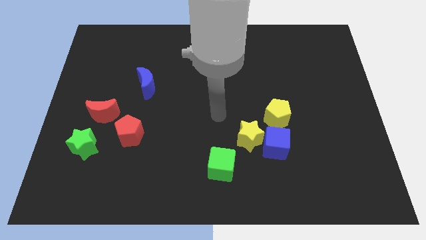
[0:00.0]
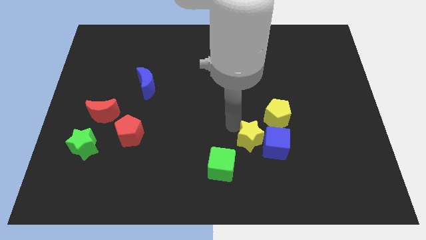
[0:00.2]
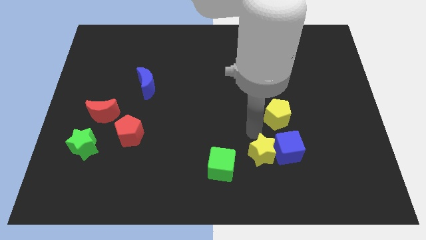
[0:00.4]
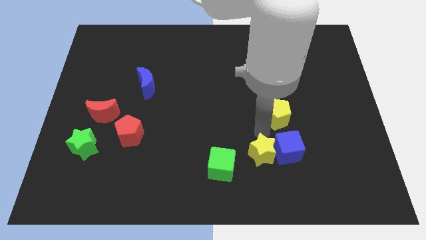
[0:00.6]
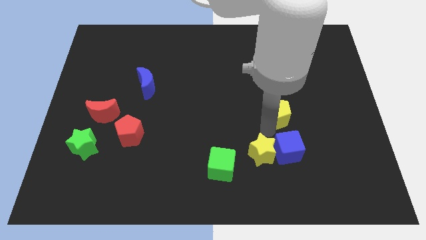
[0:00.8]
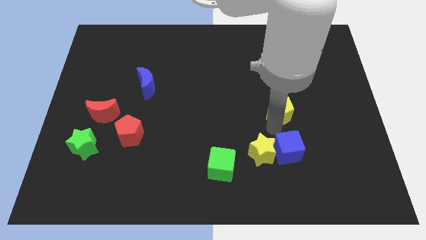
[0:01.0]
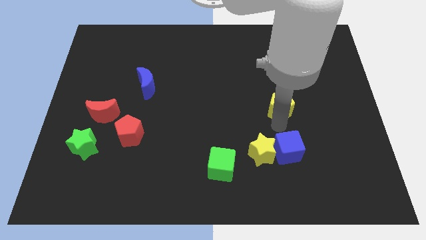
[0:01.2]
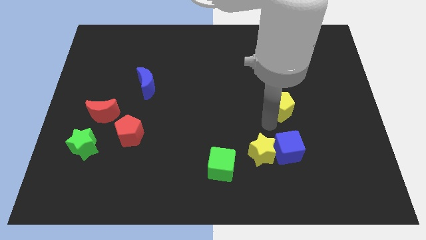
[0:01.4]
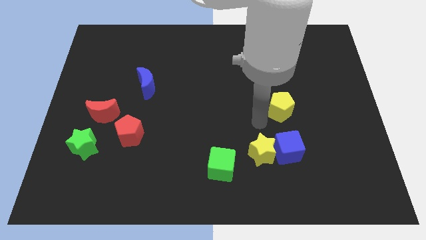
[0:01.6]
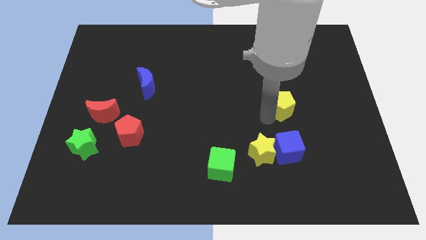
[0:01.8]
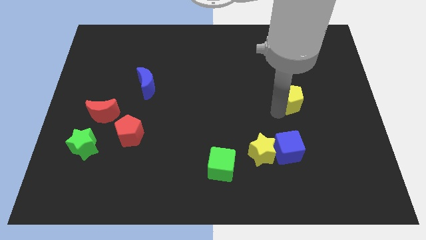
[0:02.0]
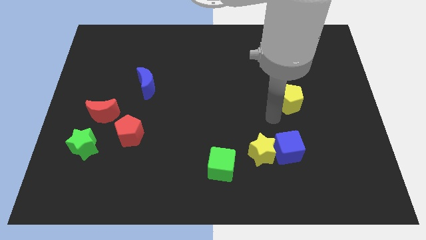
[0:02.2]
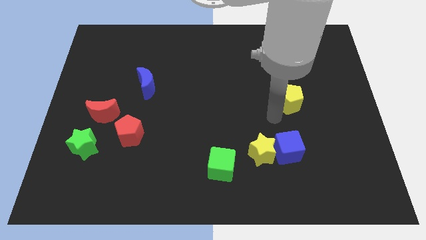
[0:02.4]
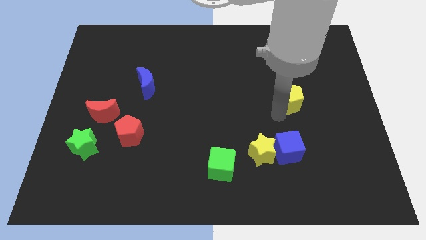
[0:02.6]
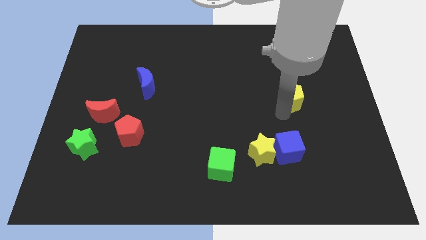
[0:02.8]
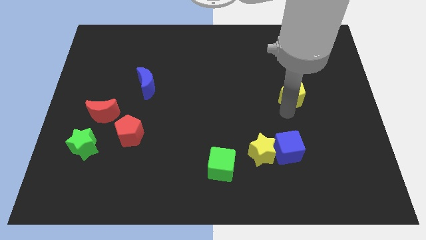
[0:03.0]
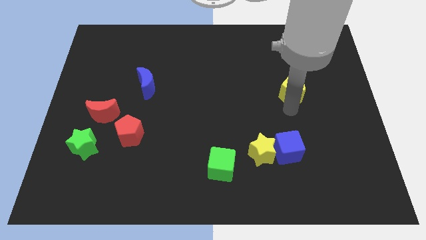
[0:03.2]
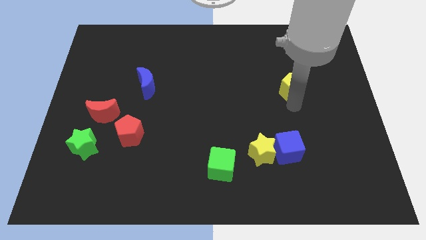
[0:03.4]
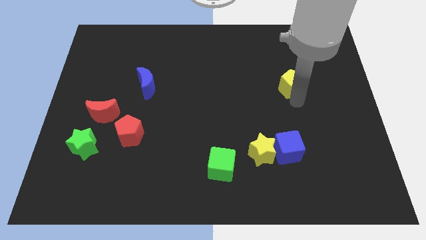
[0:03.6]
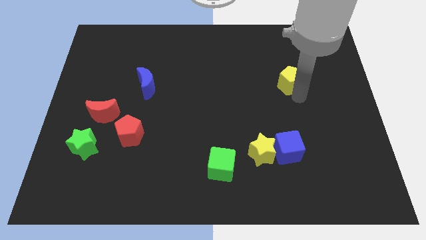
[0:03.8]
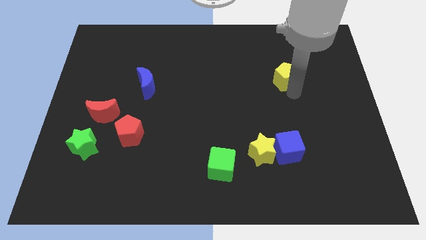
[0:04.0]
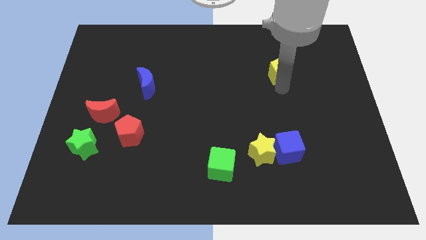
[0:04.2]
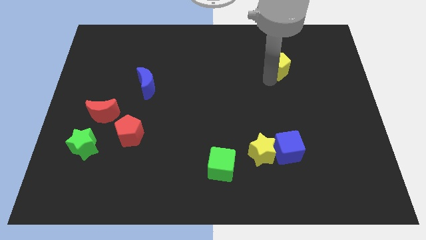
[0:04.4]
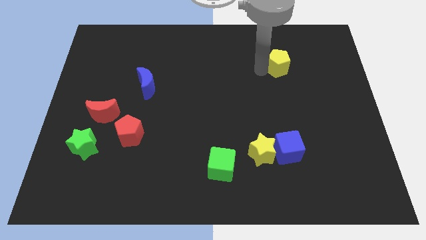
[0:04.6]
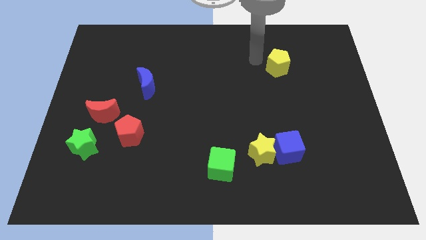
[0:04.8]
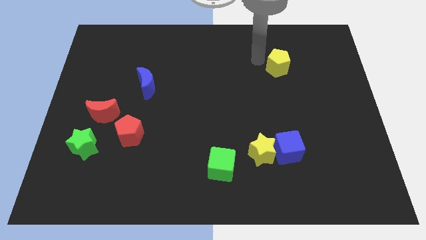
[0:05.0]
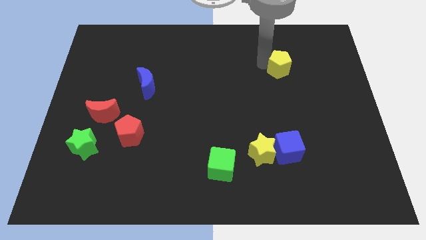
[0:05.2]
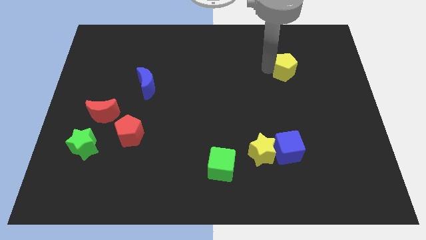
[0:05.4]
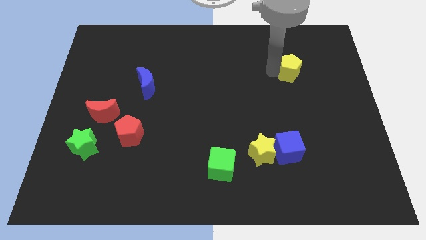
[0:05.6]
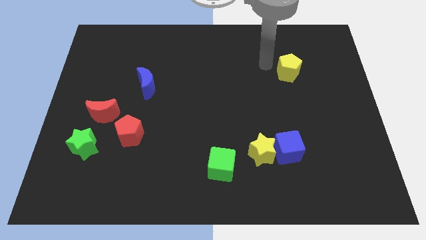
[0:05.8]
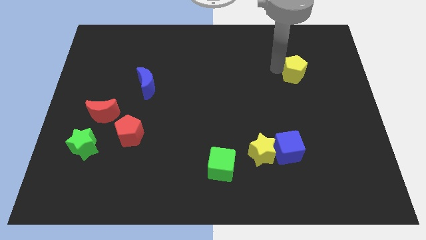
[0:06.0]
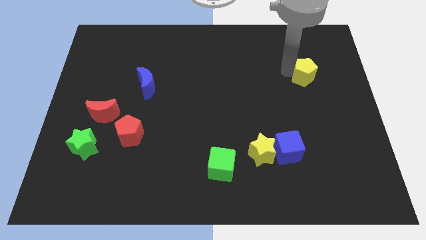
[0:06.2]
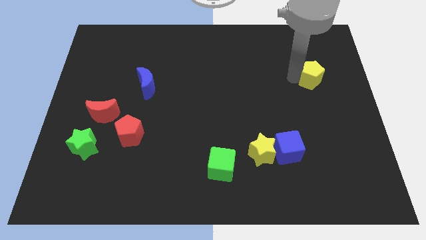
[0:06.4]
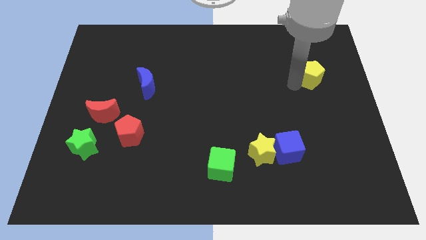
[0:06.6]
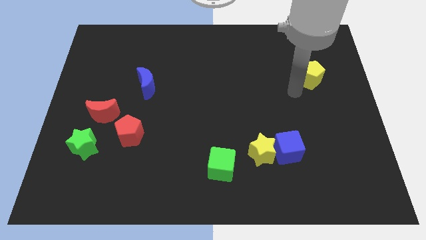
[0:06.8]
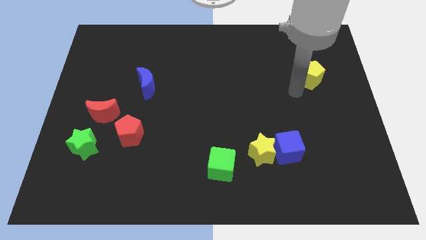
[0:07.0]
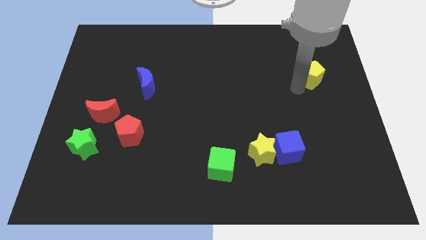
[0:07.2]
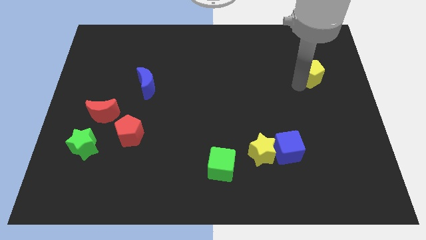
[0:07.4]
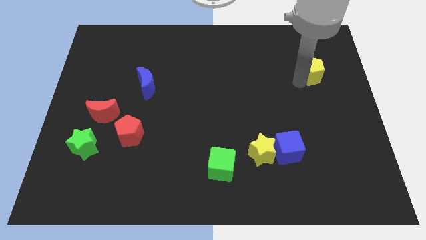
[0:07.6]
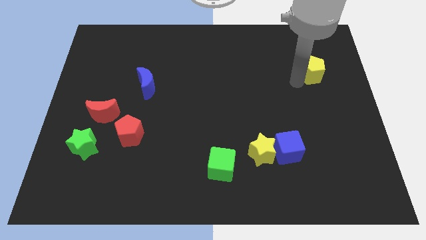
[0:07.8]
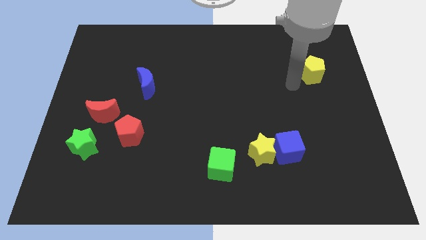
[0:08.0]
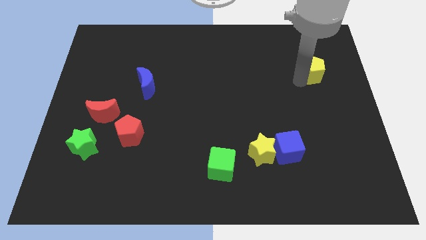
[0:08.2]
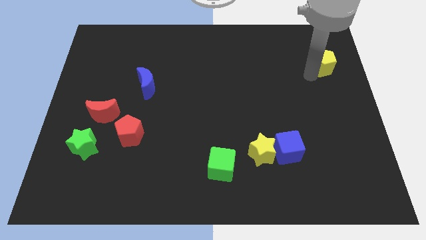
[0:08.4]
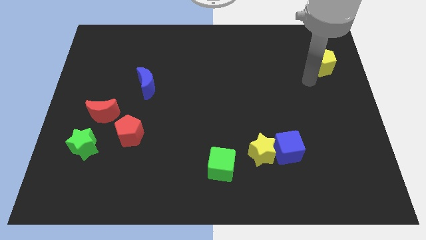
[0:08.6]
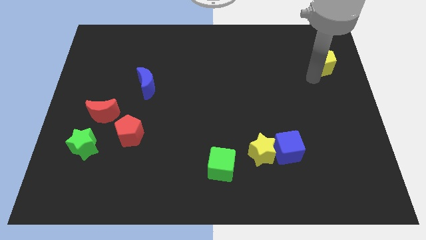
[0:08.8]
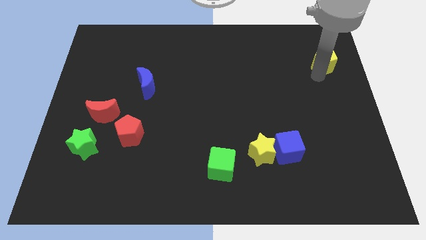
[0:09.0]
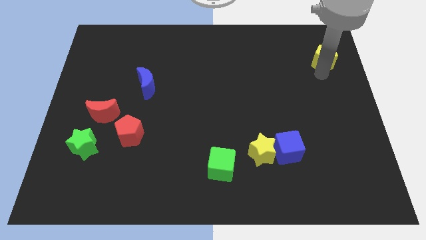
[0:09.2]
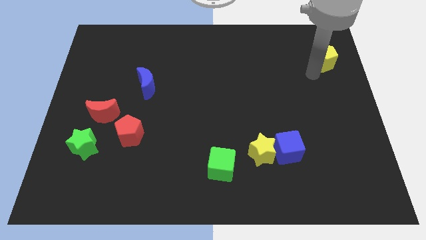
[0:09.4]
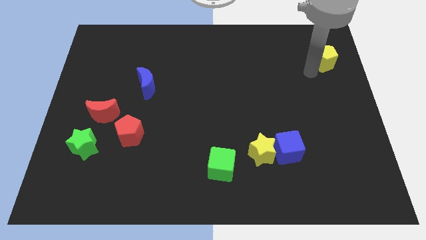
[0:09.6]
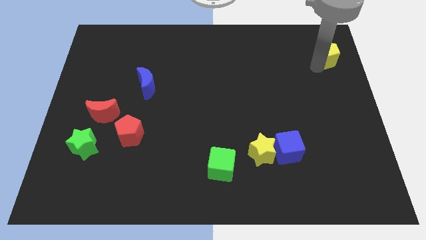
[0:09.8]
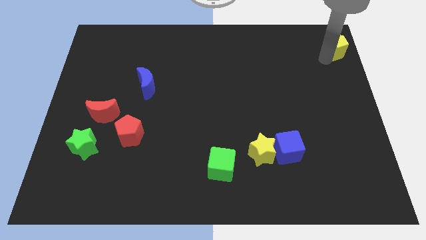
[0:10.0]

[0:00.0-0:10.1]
put the yellow pentagon to the top right corner

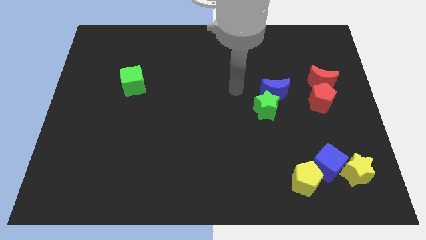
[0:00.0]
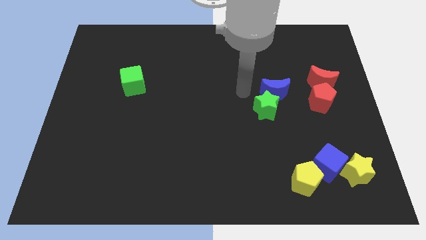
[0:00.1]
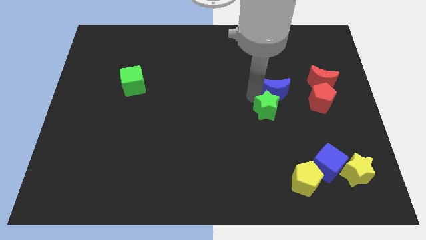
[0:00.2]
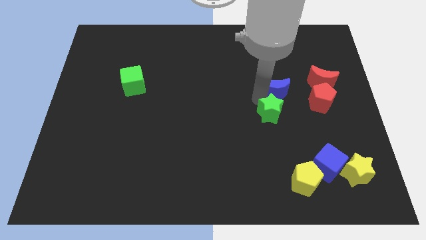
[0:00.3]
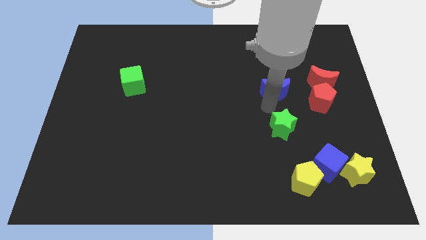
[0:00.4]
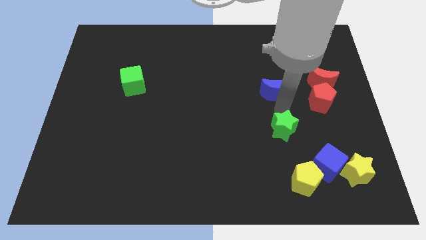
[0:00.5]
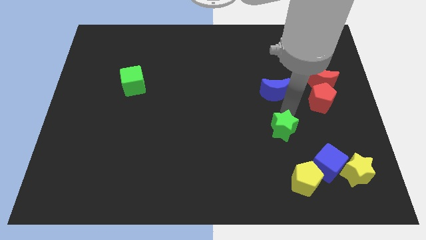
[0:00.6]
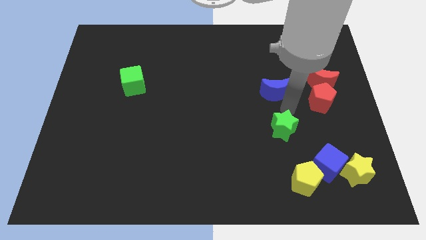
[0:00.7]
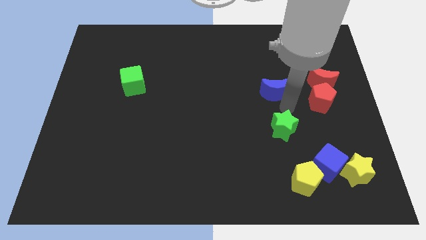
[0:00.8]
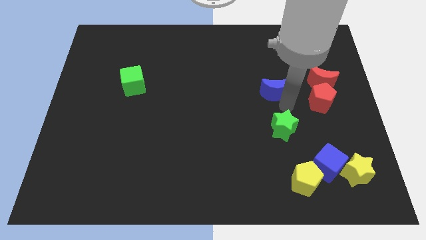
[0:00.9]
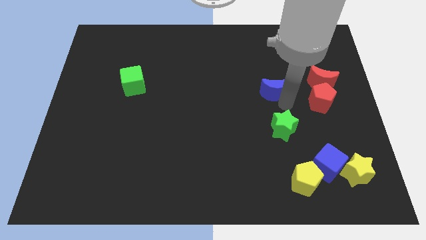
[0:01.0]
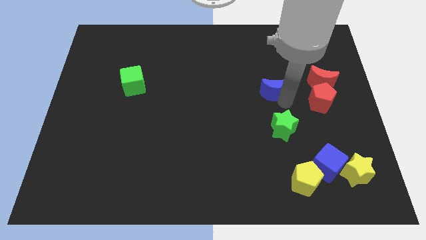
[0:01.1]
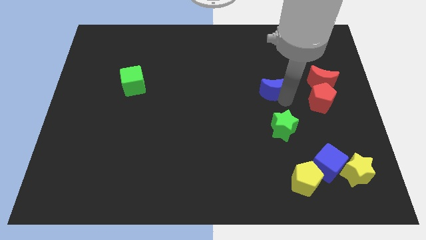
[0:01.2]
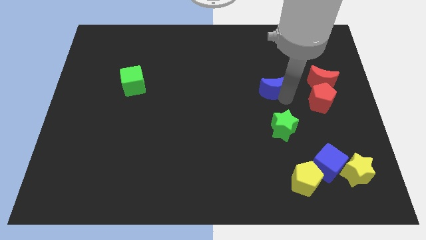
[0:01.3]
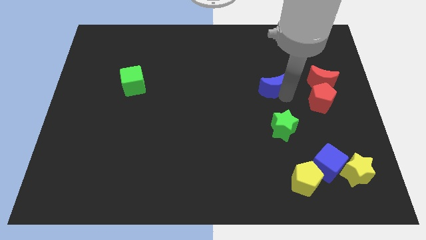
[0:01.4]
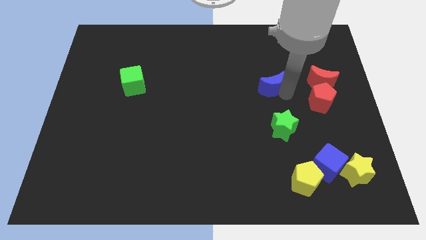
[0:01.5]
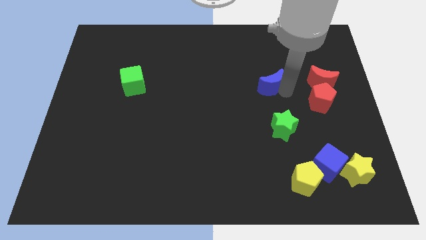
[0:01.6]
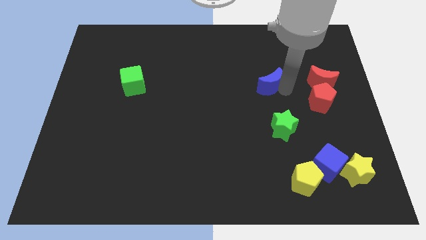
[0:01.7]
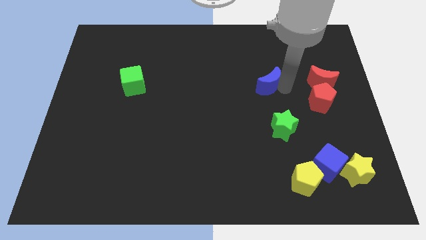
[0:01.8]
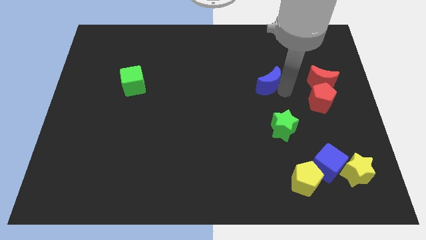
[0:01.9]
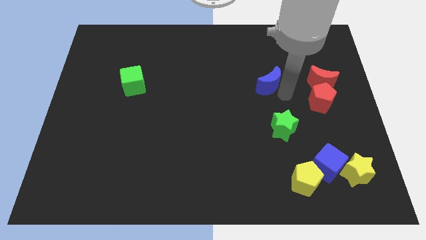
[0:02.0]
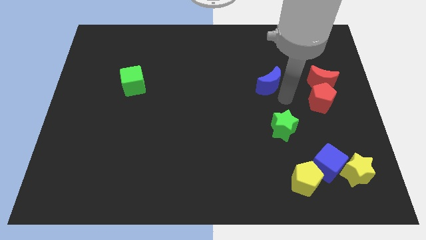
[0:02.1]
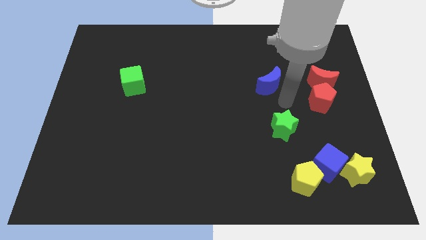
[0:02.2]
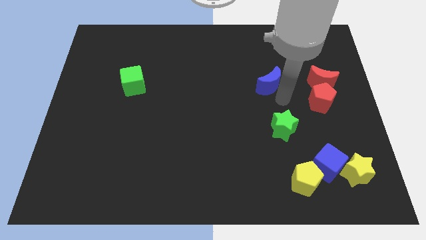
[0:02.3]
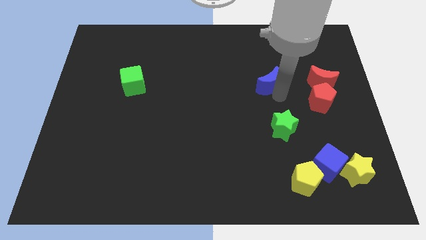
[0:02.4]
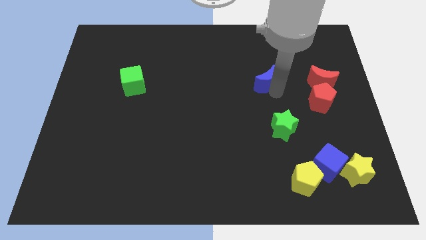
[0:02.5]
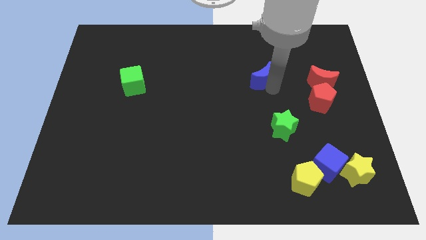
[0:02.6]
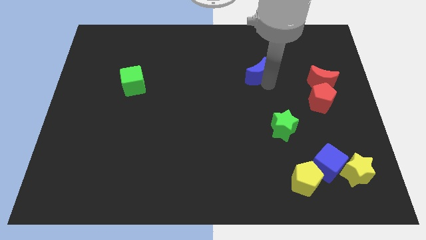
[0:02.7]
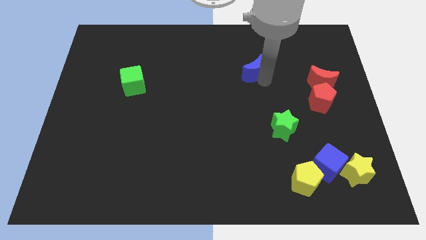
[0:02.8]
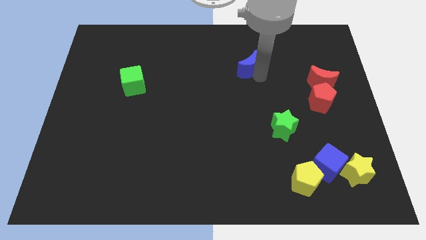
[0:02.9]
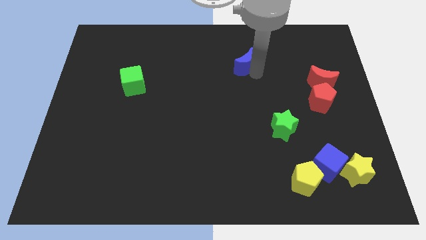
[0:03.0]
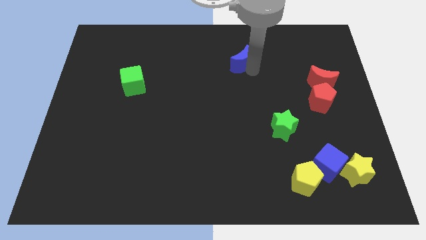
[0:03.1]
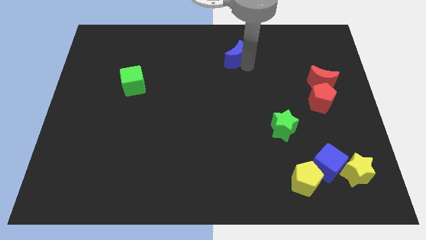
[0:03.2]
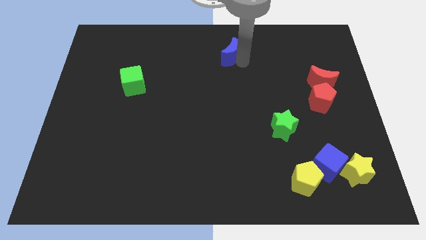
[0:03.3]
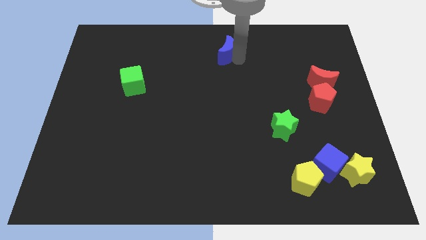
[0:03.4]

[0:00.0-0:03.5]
slide the blue moon to the top
